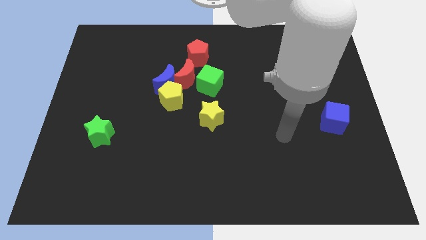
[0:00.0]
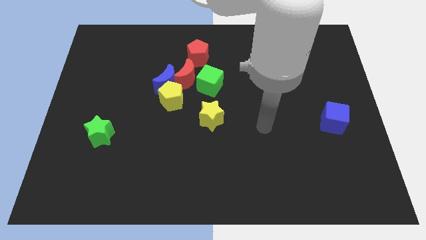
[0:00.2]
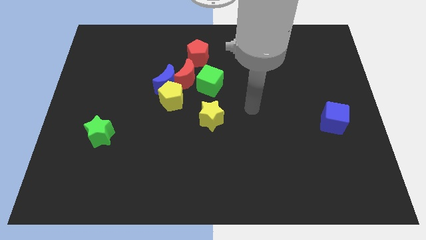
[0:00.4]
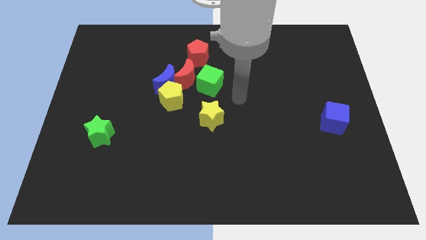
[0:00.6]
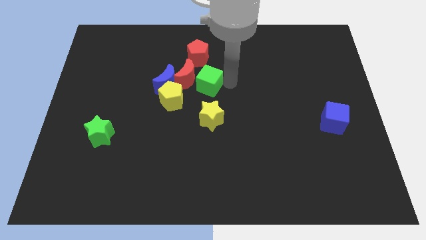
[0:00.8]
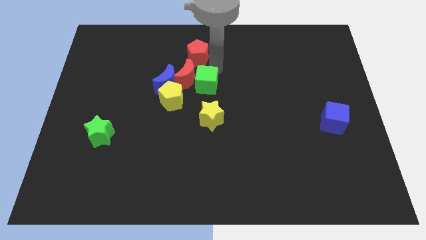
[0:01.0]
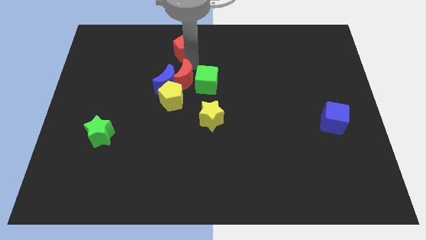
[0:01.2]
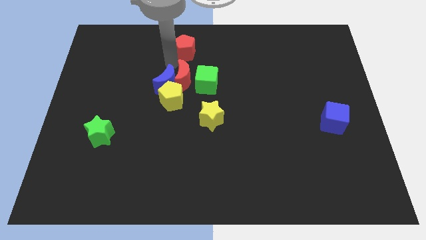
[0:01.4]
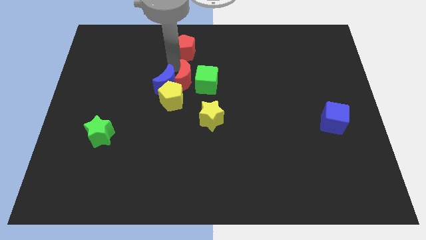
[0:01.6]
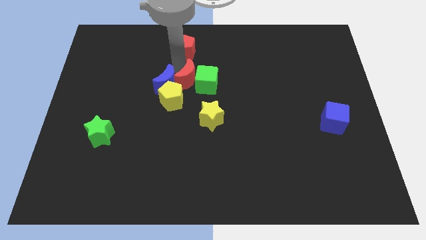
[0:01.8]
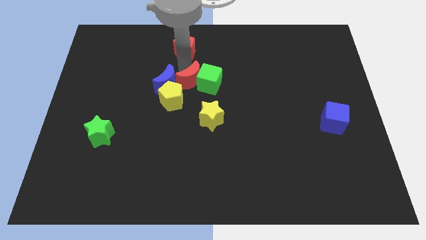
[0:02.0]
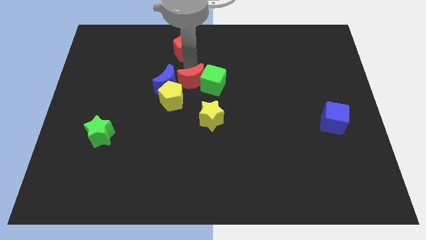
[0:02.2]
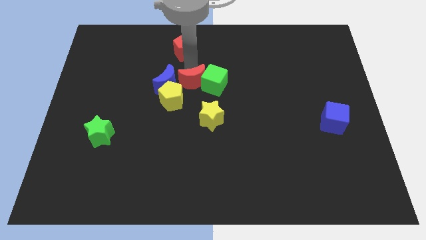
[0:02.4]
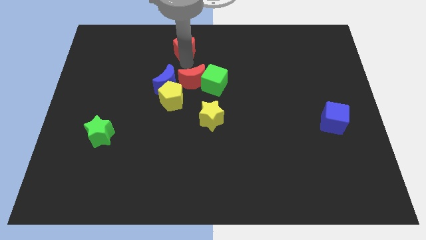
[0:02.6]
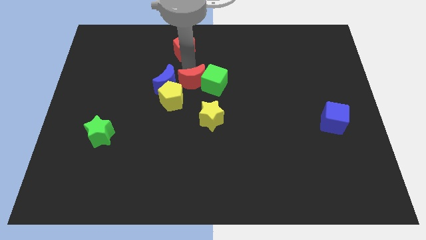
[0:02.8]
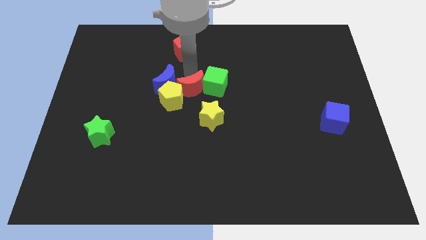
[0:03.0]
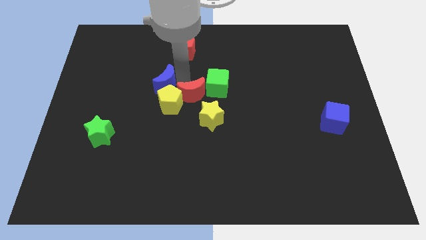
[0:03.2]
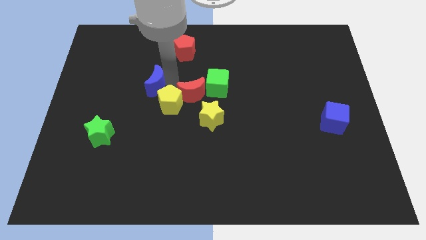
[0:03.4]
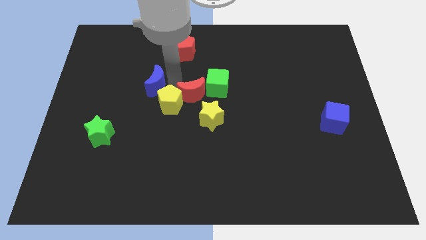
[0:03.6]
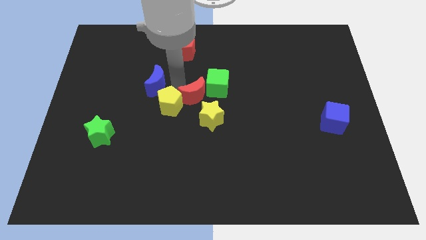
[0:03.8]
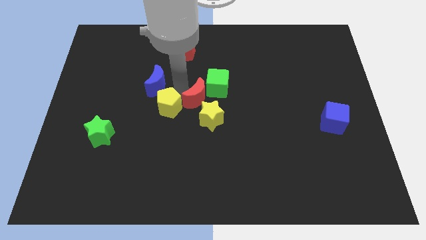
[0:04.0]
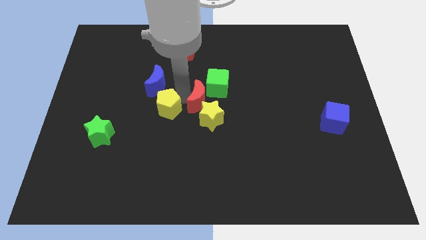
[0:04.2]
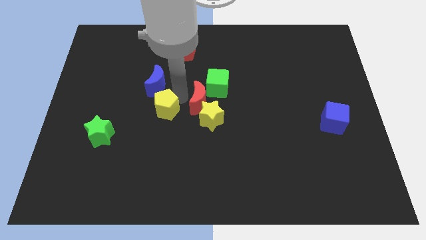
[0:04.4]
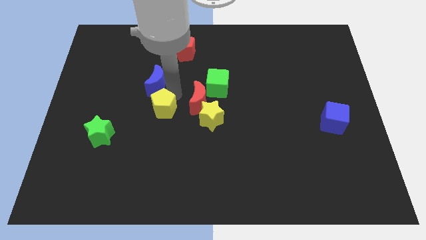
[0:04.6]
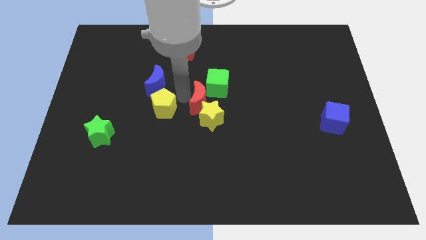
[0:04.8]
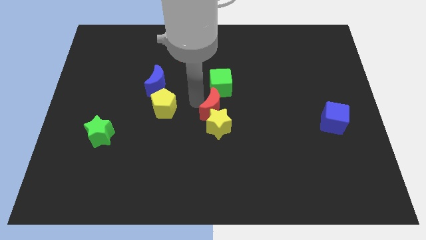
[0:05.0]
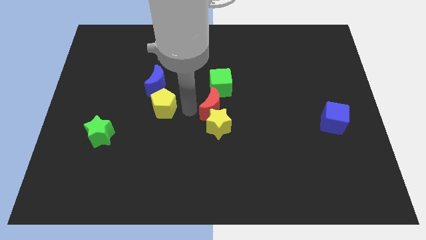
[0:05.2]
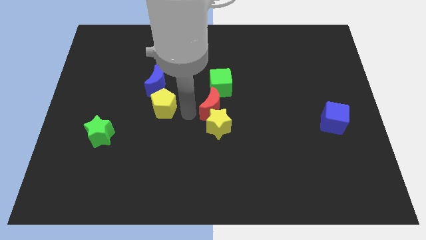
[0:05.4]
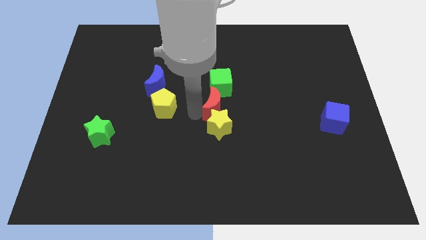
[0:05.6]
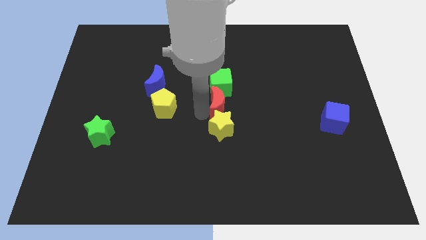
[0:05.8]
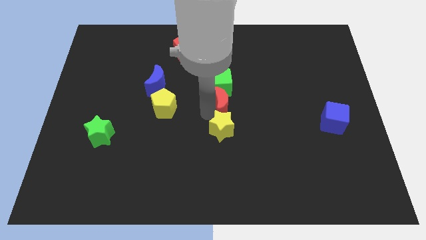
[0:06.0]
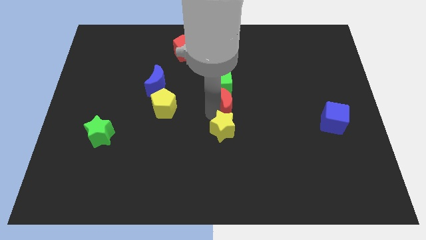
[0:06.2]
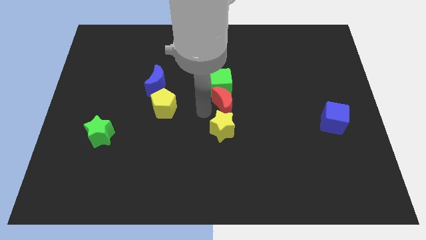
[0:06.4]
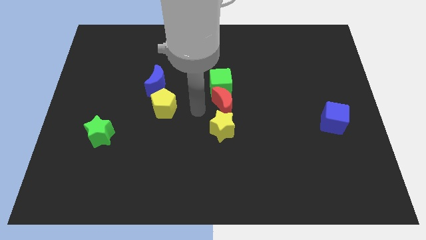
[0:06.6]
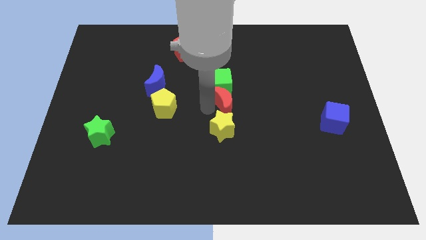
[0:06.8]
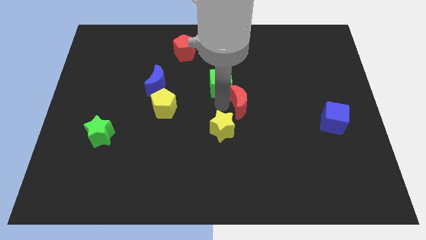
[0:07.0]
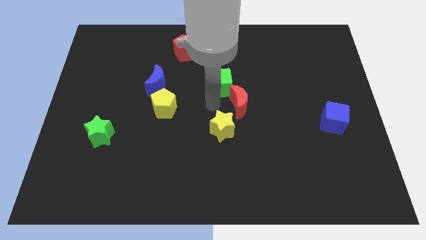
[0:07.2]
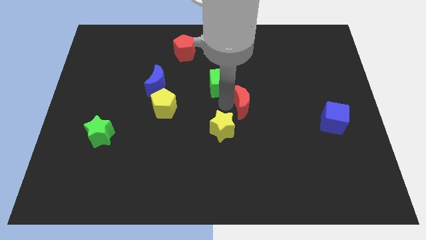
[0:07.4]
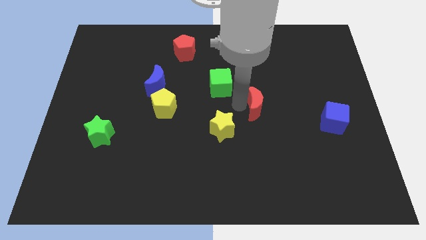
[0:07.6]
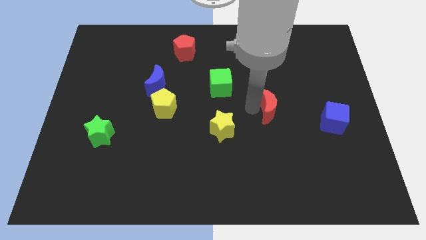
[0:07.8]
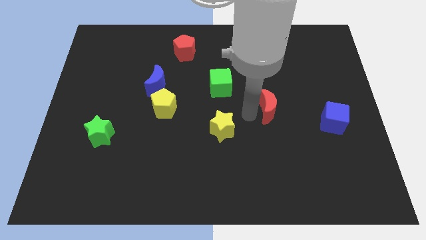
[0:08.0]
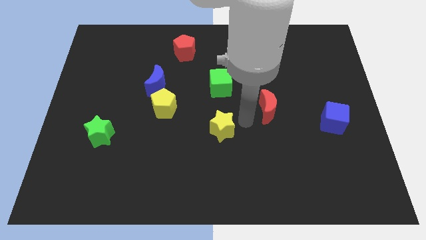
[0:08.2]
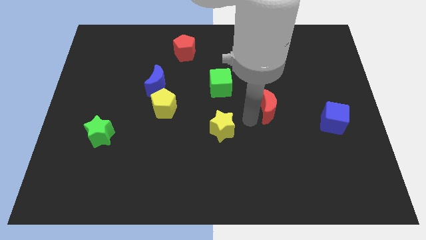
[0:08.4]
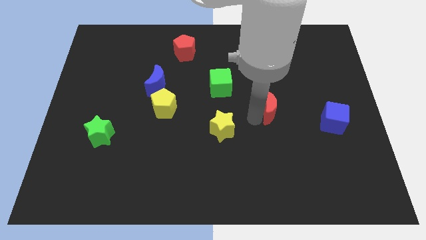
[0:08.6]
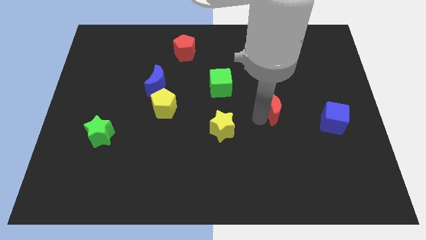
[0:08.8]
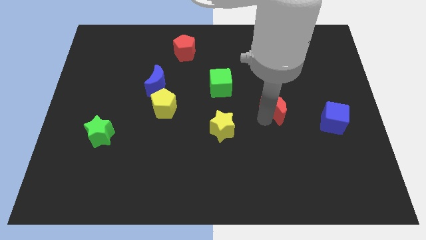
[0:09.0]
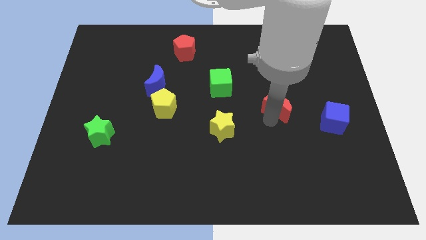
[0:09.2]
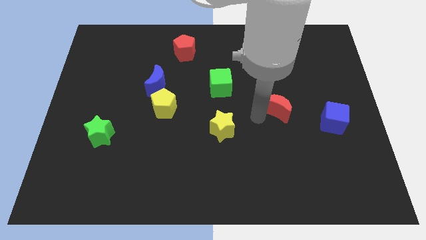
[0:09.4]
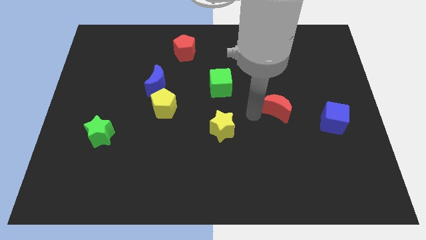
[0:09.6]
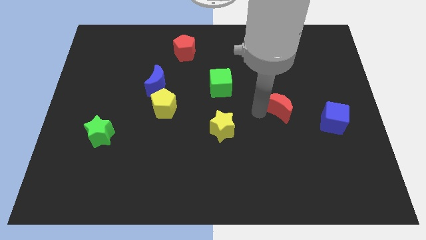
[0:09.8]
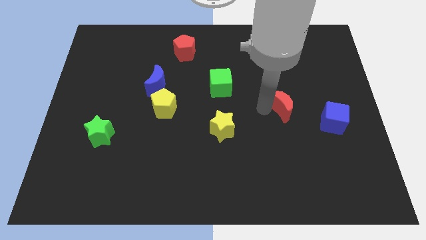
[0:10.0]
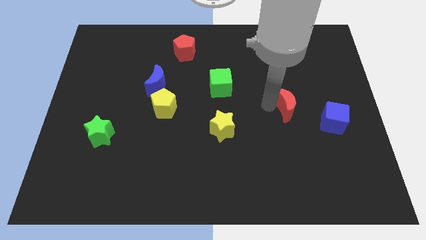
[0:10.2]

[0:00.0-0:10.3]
move the red moon to the top left side of the blue cube

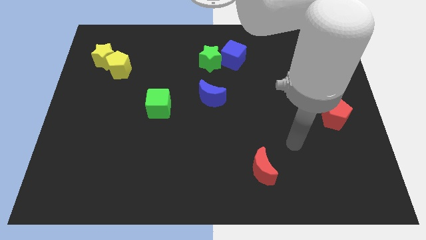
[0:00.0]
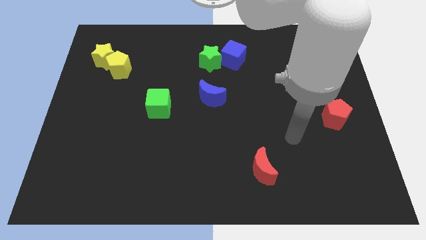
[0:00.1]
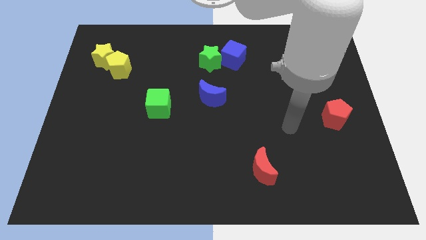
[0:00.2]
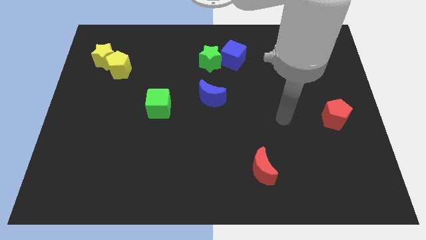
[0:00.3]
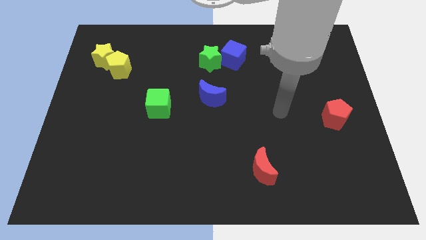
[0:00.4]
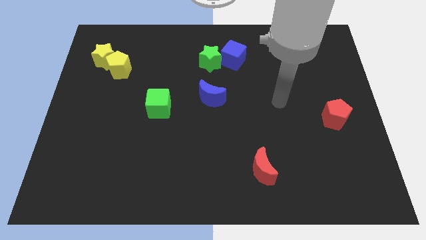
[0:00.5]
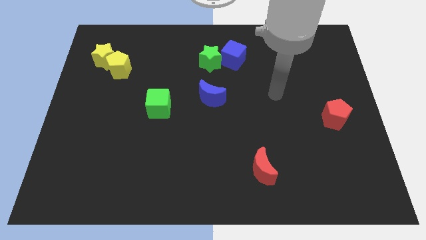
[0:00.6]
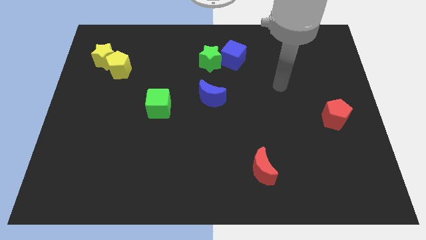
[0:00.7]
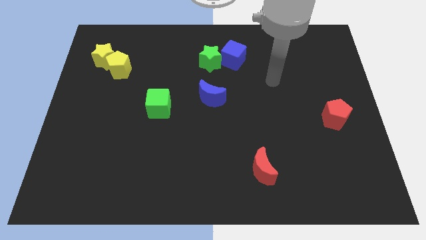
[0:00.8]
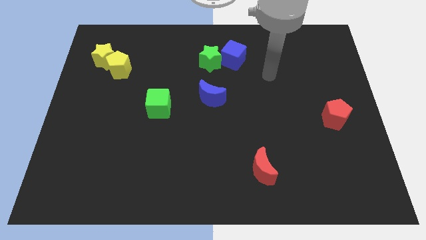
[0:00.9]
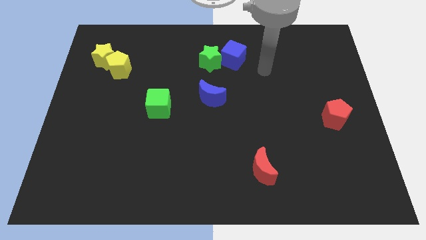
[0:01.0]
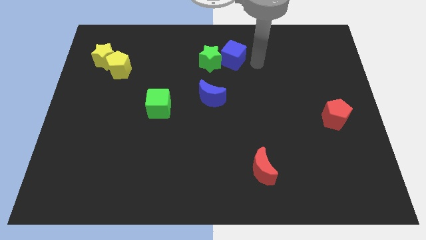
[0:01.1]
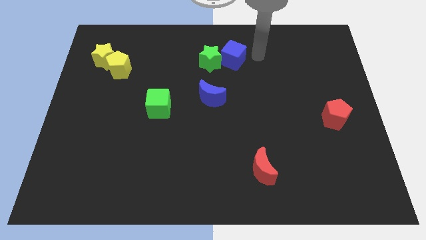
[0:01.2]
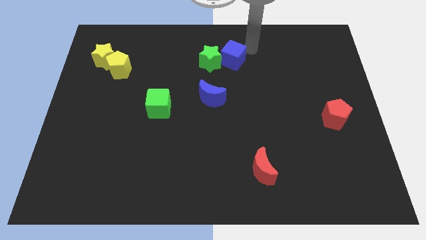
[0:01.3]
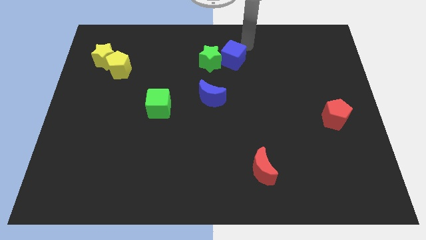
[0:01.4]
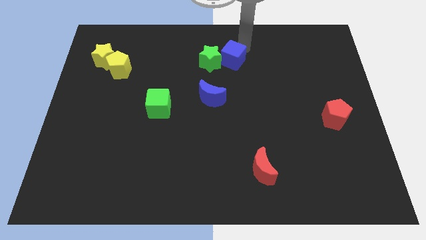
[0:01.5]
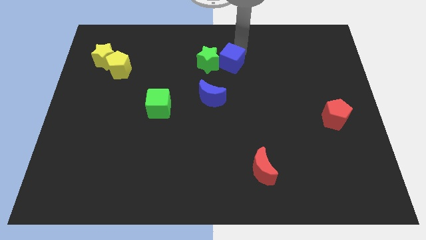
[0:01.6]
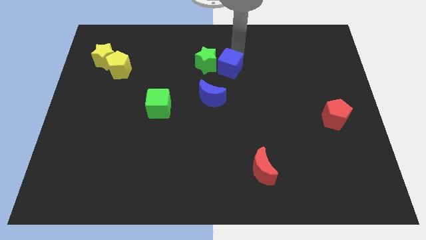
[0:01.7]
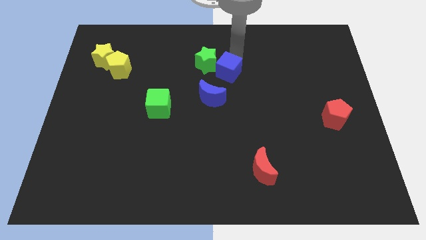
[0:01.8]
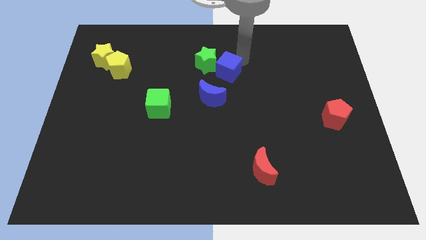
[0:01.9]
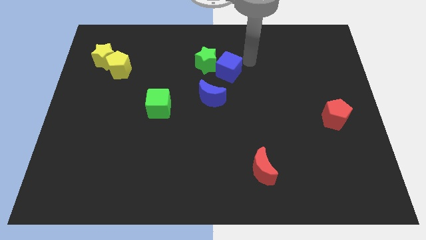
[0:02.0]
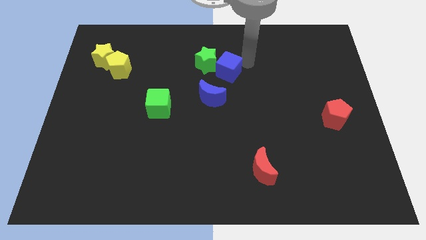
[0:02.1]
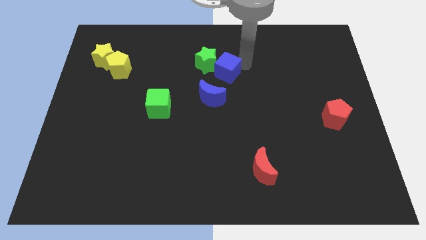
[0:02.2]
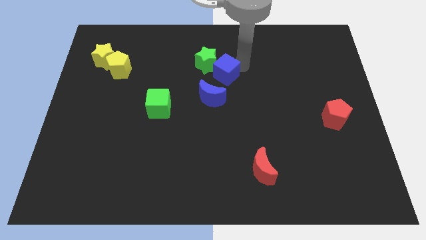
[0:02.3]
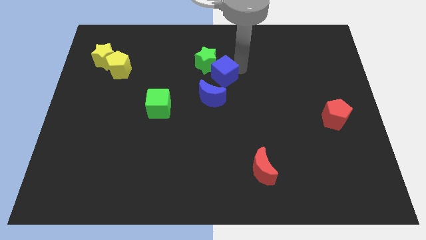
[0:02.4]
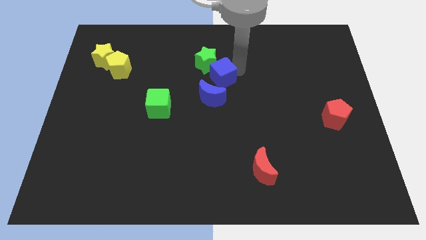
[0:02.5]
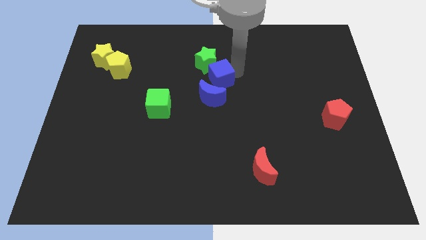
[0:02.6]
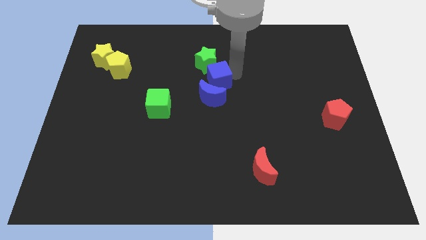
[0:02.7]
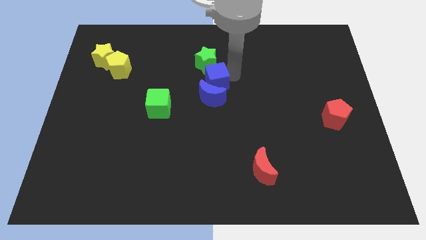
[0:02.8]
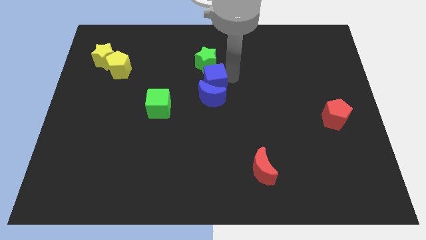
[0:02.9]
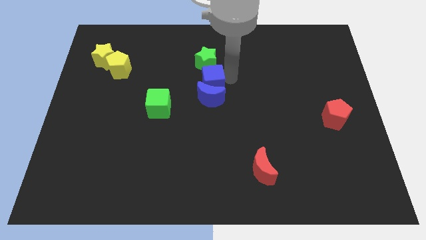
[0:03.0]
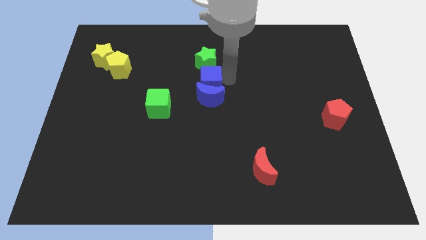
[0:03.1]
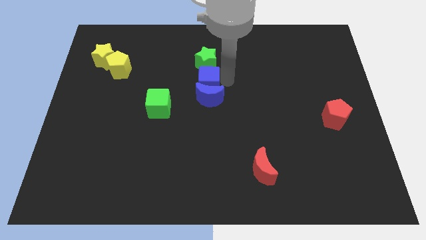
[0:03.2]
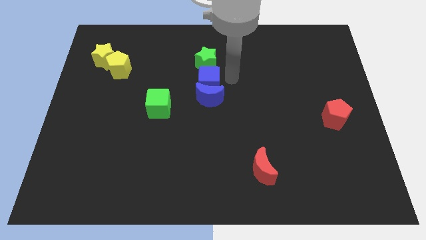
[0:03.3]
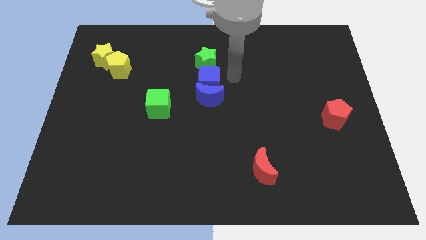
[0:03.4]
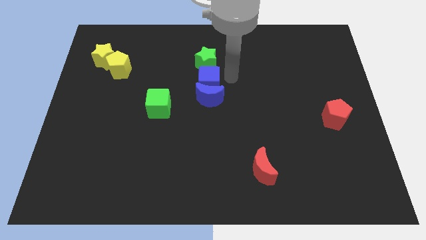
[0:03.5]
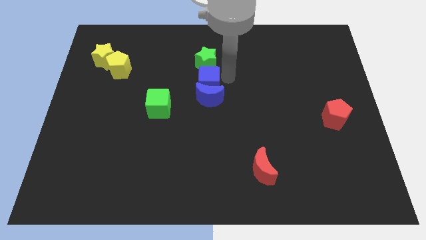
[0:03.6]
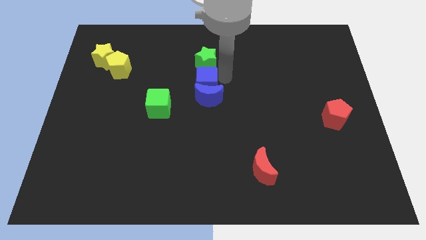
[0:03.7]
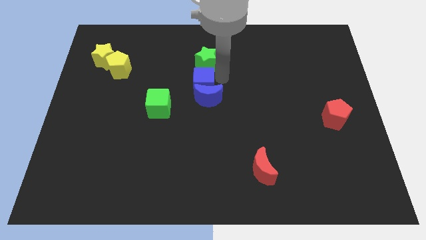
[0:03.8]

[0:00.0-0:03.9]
put the blue cube to the top right of the green cube
